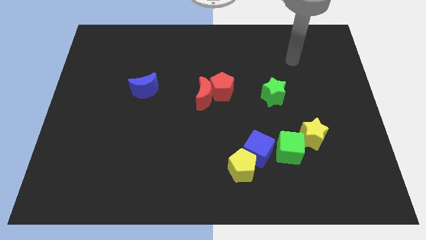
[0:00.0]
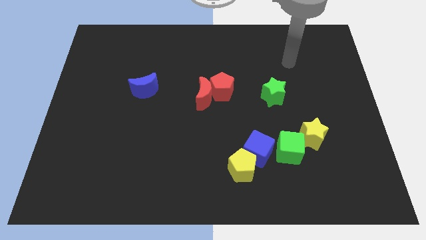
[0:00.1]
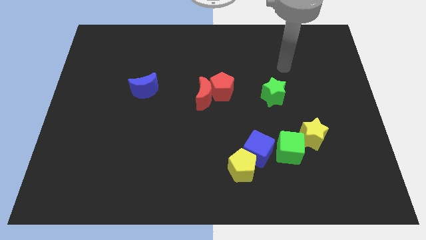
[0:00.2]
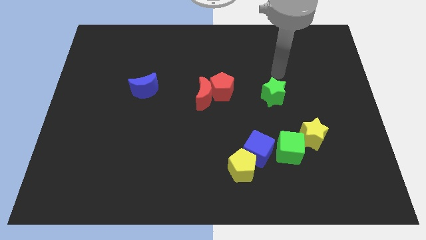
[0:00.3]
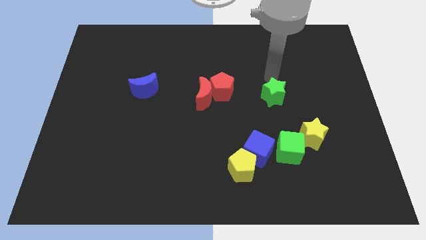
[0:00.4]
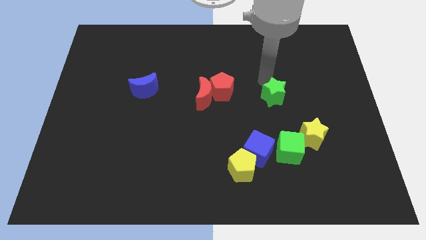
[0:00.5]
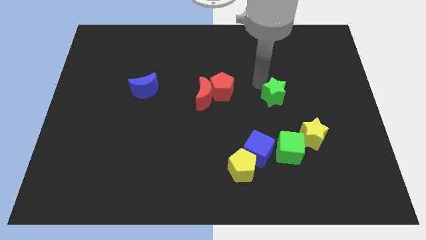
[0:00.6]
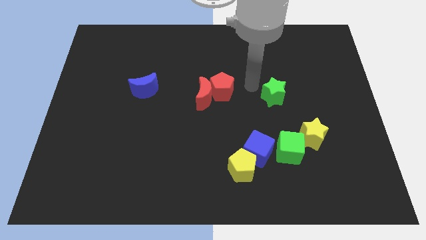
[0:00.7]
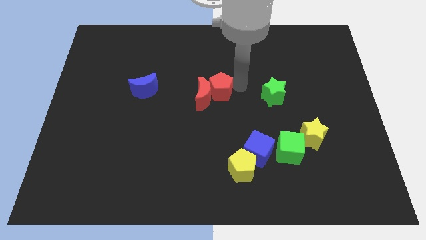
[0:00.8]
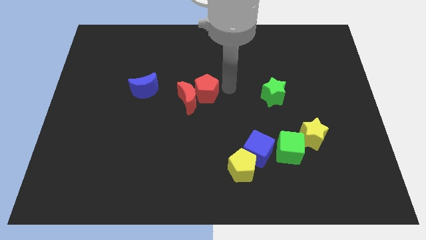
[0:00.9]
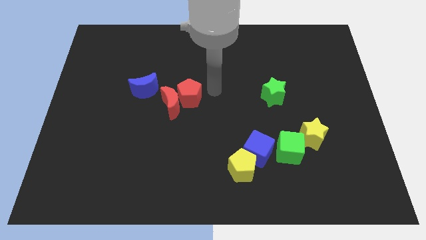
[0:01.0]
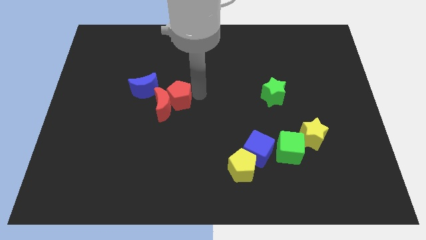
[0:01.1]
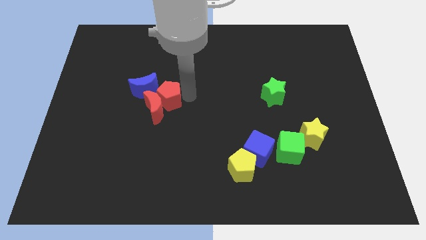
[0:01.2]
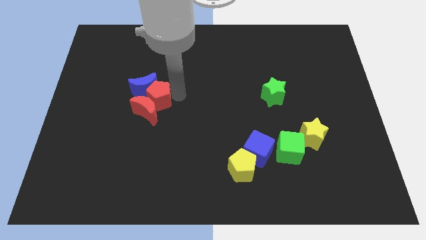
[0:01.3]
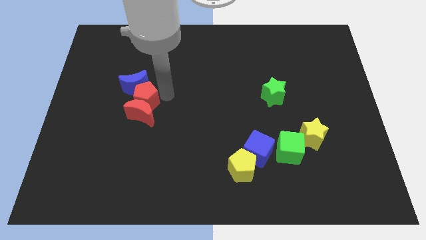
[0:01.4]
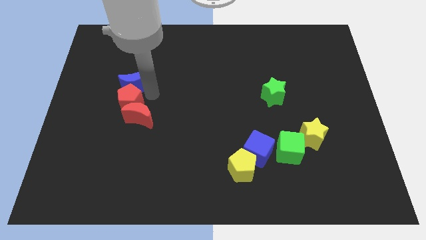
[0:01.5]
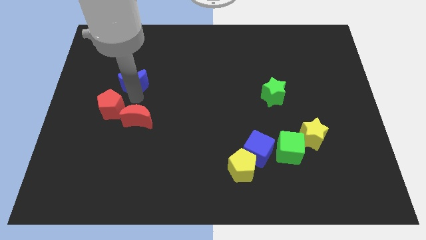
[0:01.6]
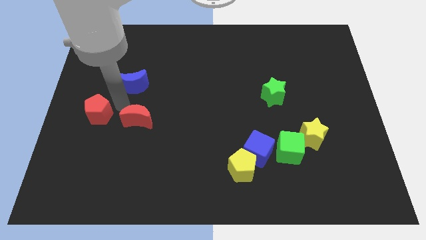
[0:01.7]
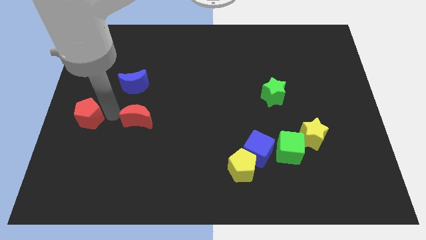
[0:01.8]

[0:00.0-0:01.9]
move the red moon away from the red pentagon

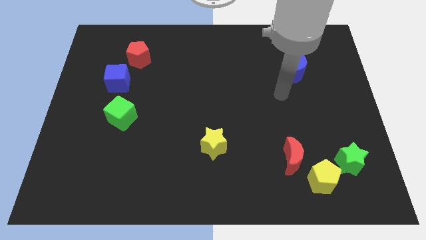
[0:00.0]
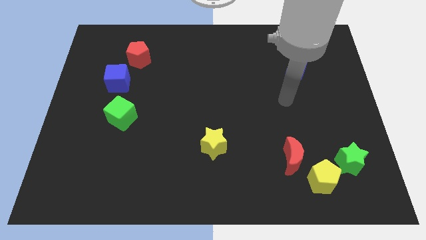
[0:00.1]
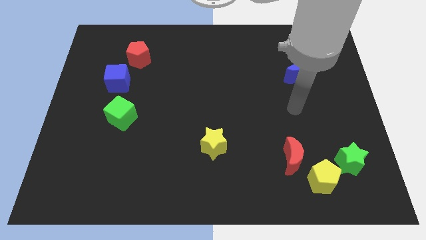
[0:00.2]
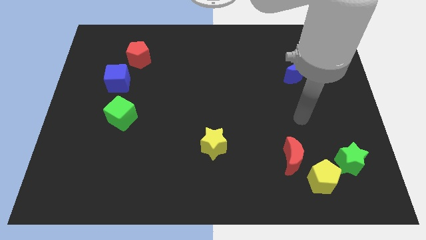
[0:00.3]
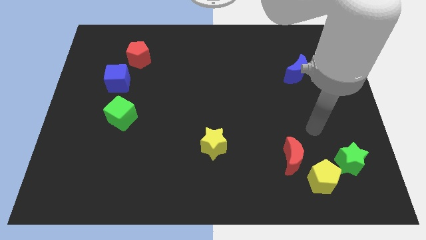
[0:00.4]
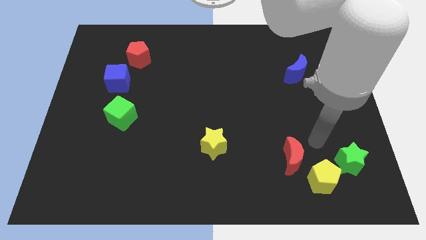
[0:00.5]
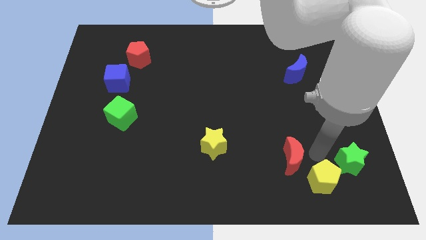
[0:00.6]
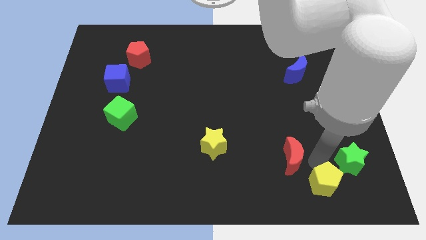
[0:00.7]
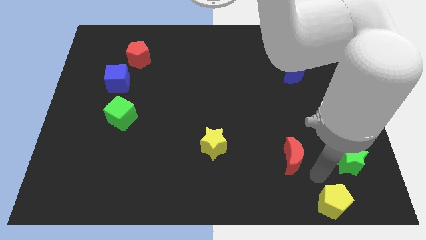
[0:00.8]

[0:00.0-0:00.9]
move the red moon away from the yellow pentagon

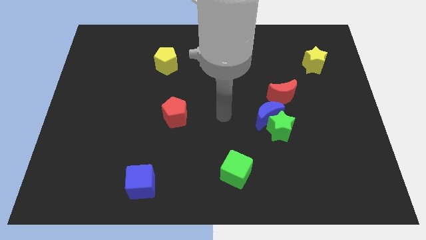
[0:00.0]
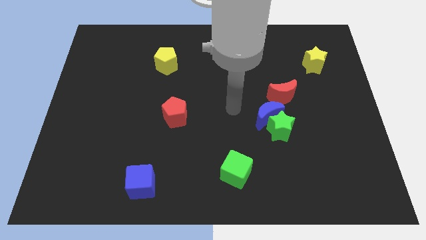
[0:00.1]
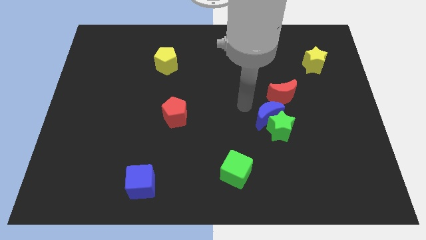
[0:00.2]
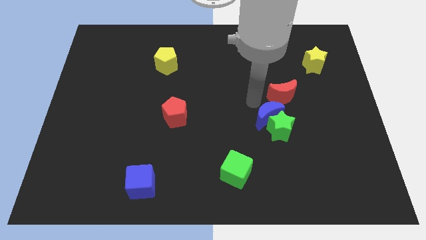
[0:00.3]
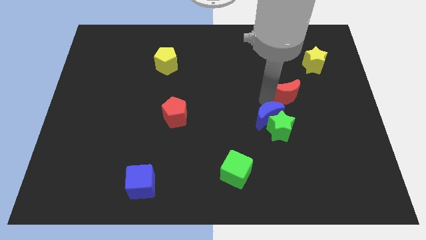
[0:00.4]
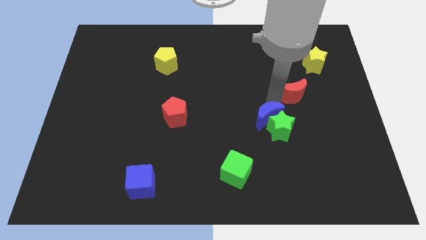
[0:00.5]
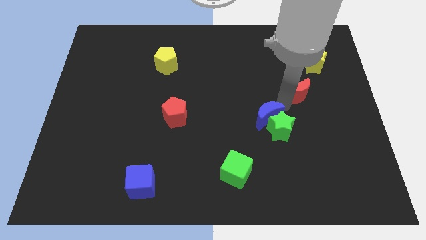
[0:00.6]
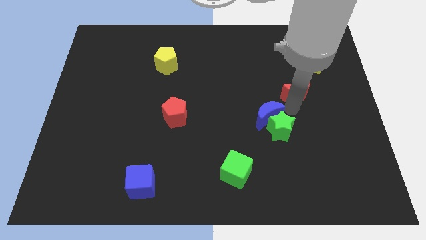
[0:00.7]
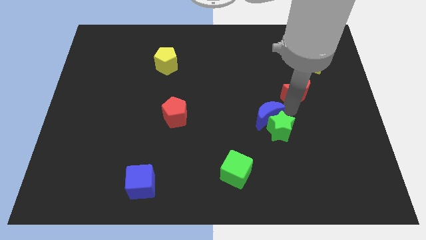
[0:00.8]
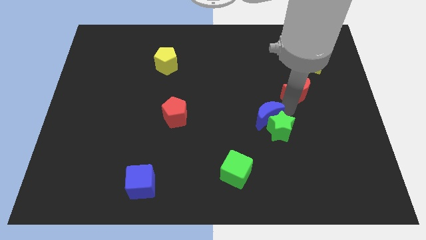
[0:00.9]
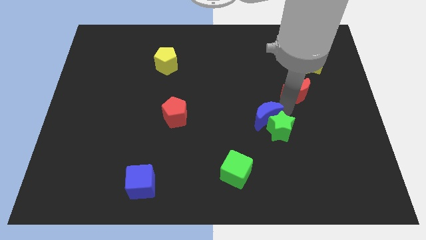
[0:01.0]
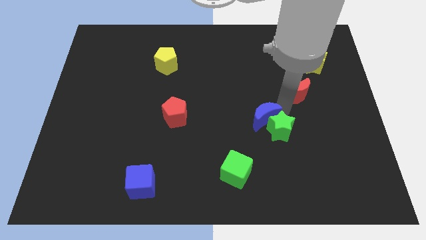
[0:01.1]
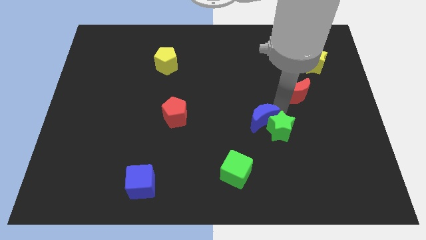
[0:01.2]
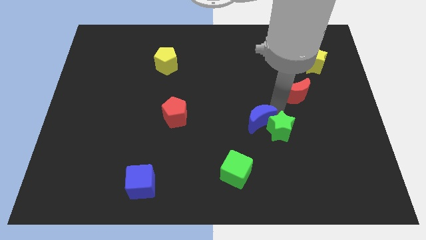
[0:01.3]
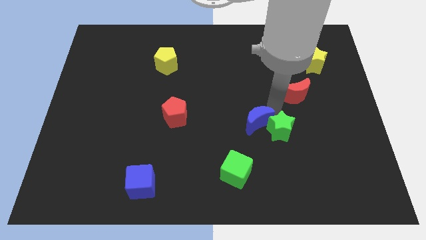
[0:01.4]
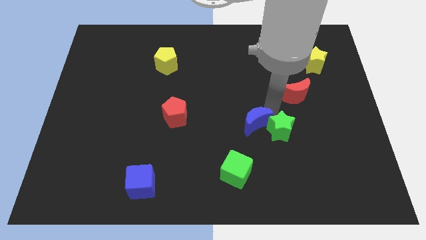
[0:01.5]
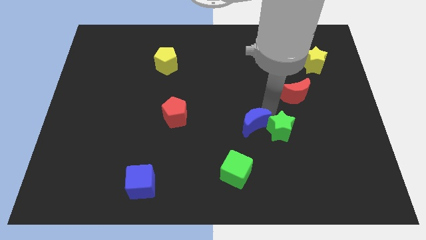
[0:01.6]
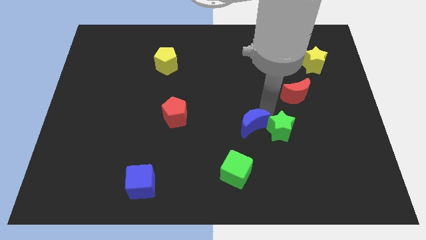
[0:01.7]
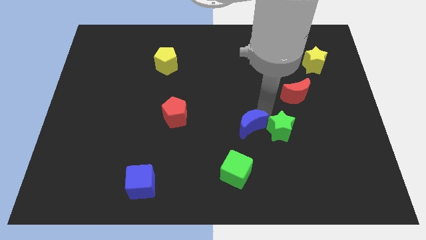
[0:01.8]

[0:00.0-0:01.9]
move the blue moon away from the green star and red moon

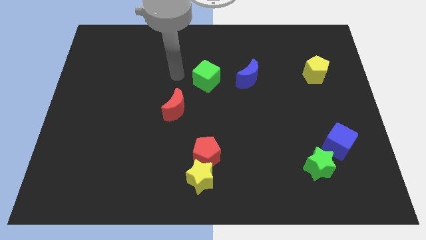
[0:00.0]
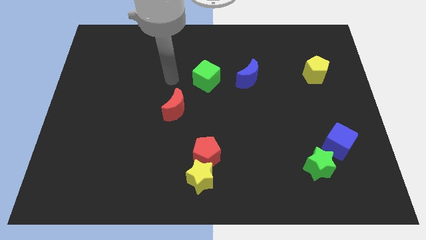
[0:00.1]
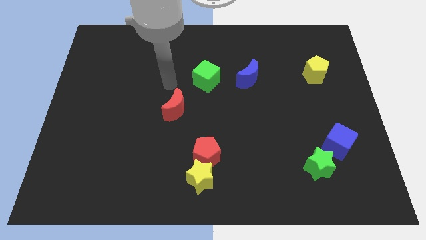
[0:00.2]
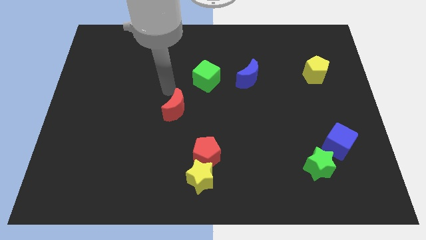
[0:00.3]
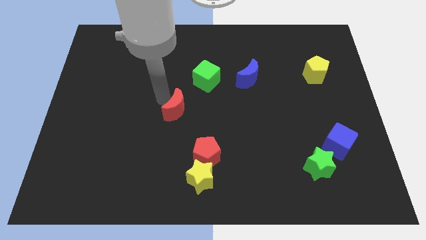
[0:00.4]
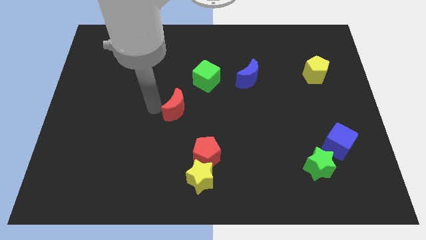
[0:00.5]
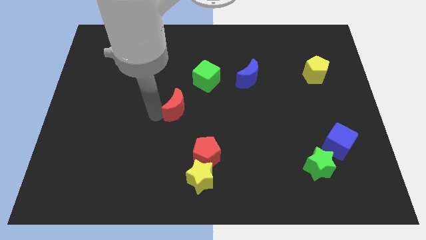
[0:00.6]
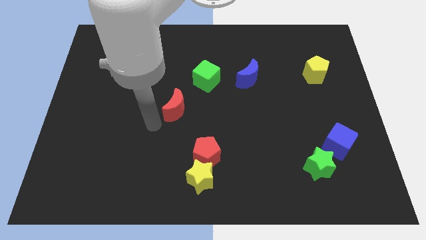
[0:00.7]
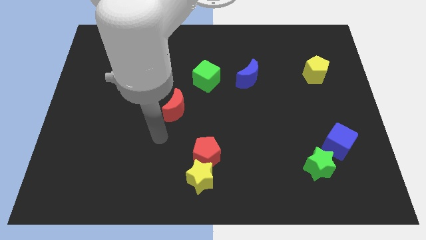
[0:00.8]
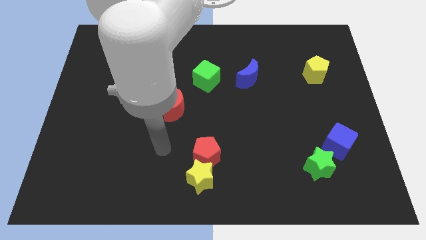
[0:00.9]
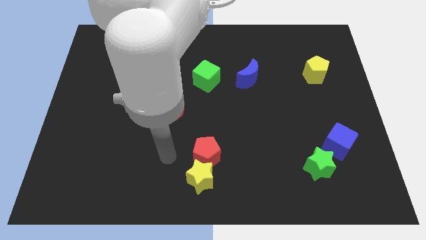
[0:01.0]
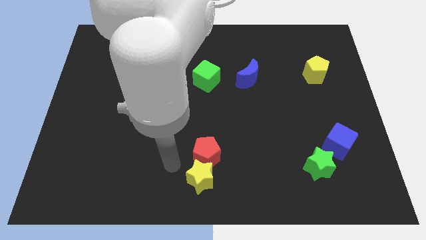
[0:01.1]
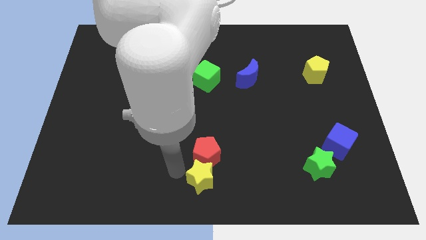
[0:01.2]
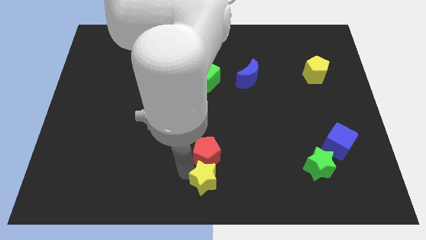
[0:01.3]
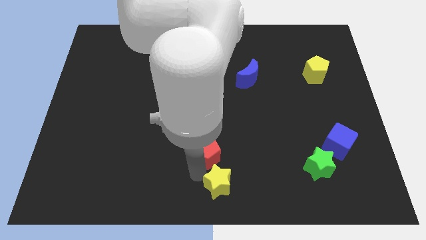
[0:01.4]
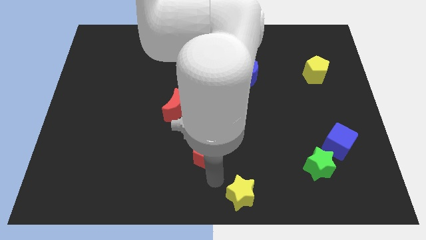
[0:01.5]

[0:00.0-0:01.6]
pull the red pentagon apart from the yellow star

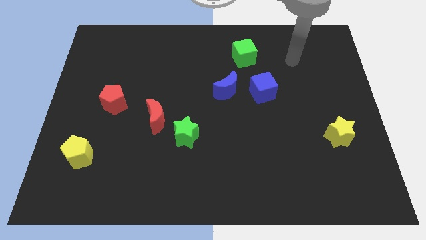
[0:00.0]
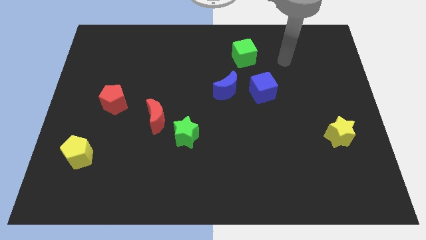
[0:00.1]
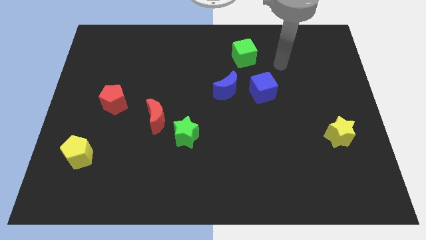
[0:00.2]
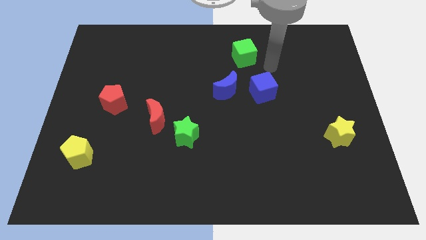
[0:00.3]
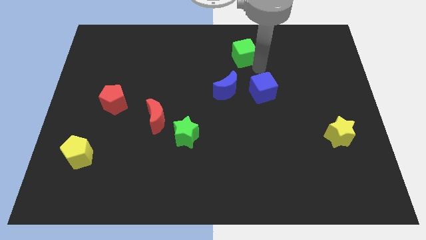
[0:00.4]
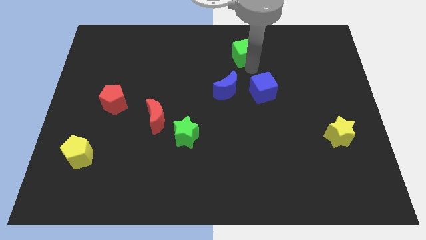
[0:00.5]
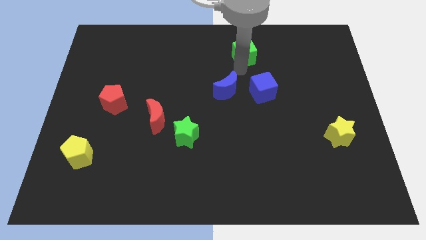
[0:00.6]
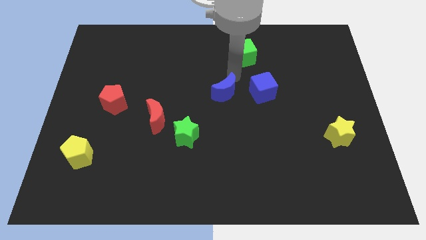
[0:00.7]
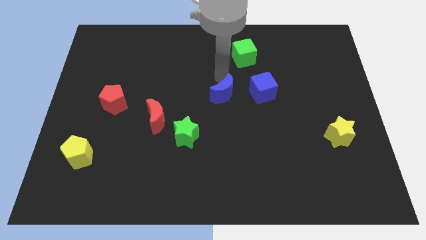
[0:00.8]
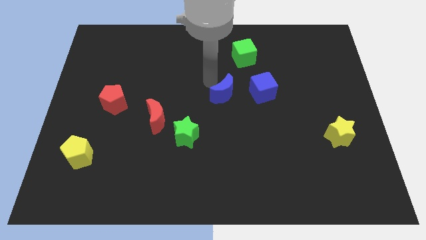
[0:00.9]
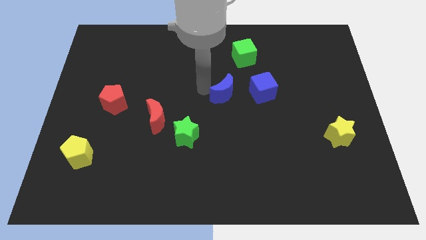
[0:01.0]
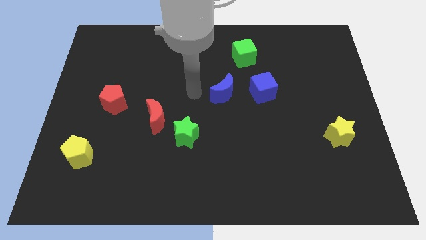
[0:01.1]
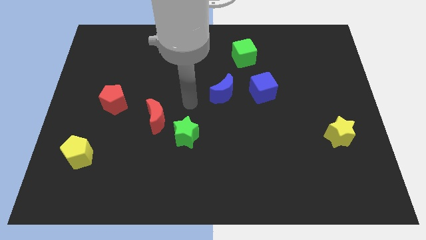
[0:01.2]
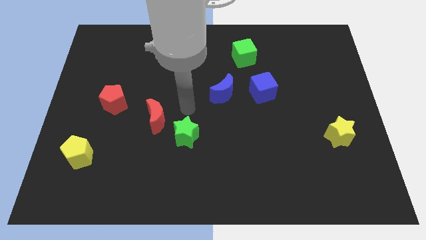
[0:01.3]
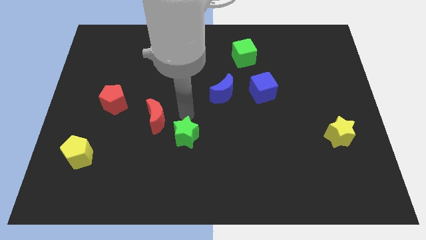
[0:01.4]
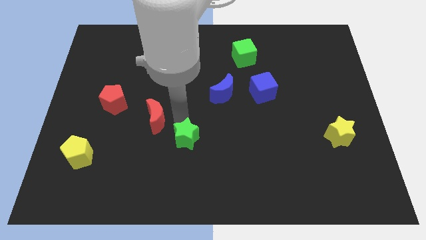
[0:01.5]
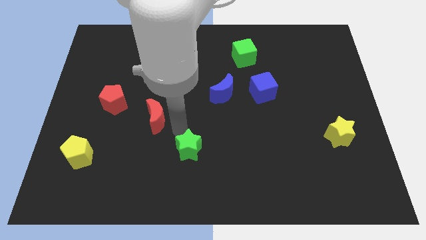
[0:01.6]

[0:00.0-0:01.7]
separate the red moon from the green star

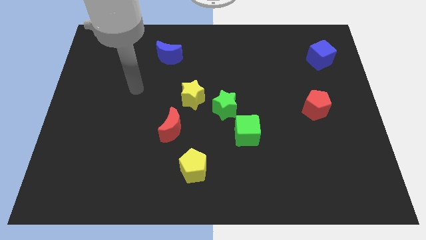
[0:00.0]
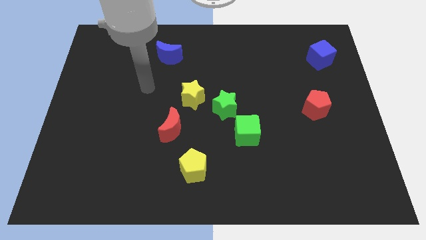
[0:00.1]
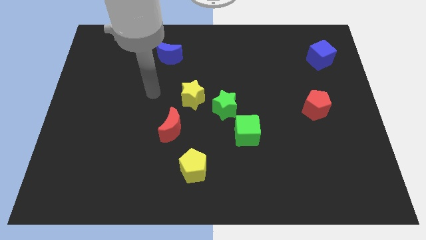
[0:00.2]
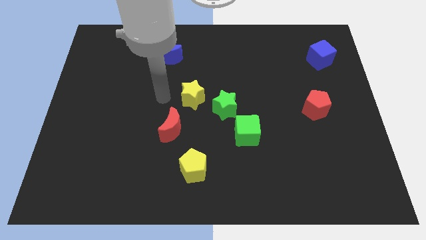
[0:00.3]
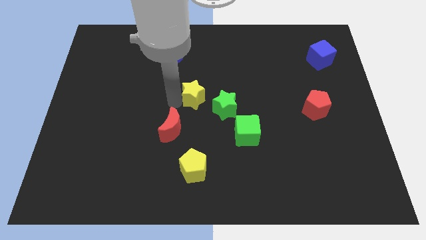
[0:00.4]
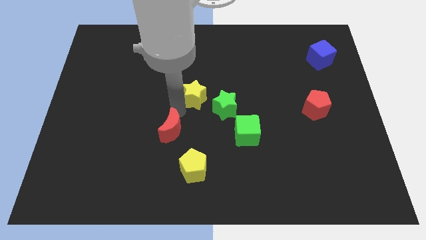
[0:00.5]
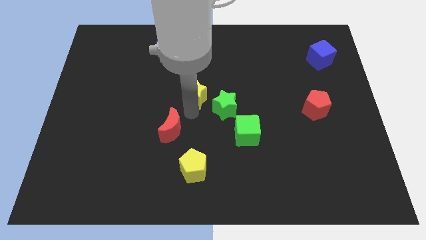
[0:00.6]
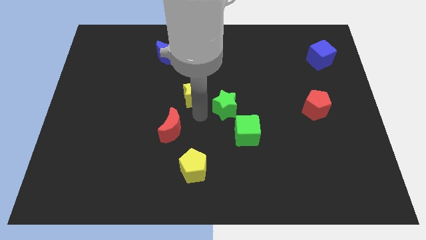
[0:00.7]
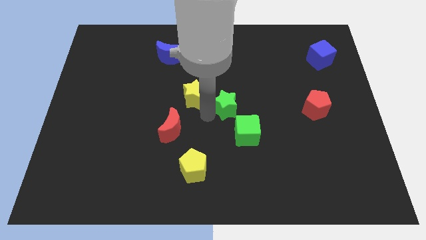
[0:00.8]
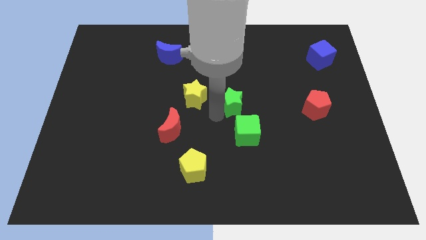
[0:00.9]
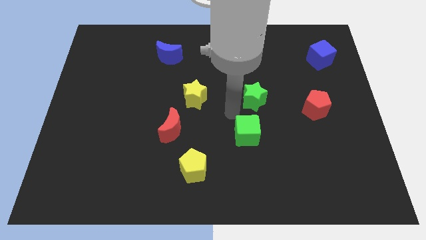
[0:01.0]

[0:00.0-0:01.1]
move the green cube away from the green star

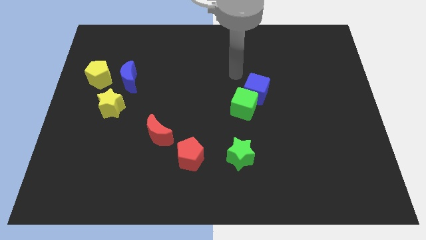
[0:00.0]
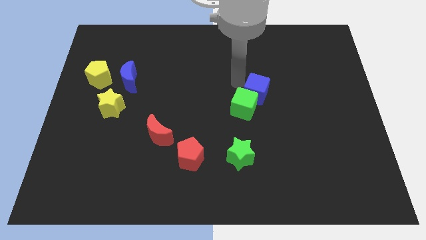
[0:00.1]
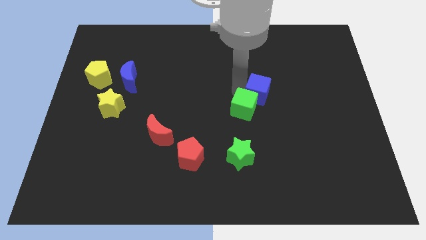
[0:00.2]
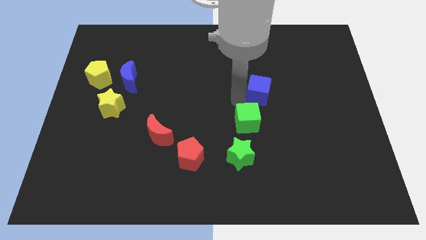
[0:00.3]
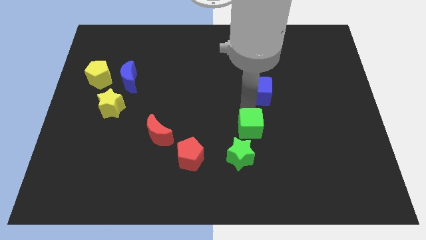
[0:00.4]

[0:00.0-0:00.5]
separate the blue cube from the green cube
